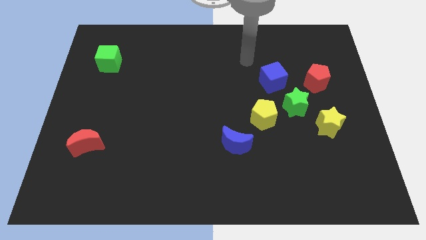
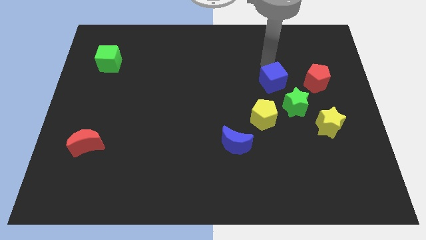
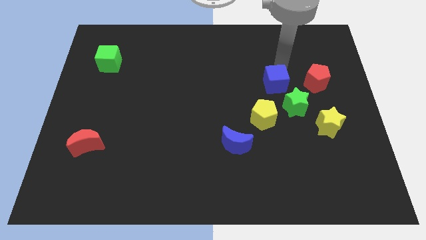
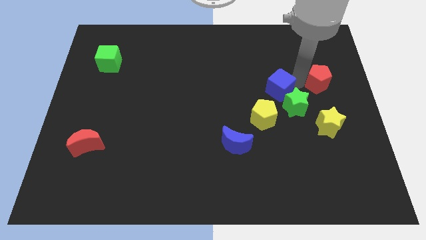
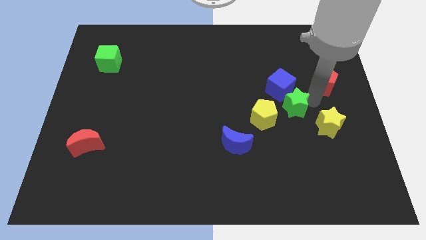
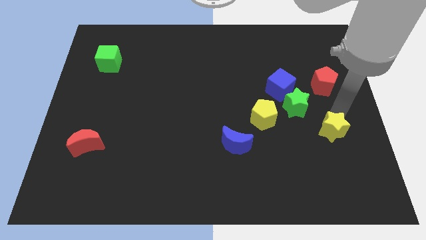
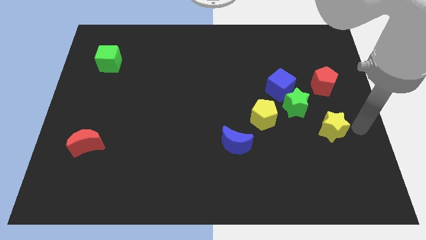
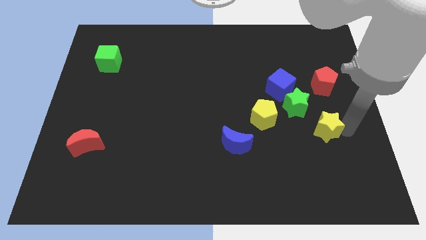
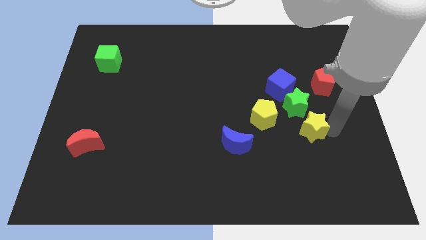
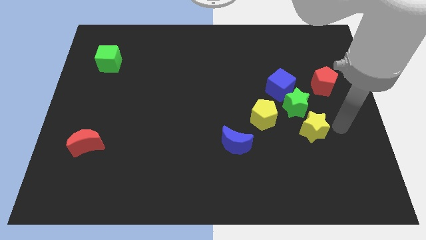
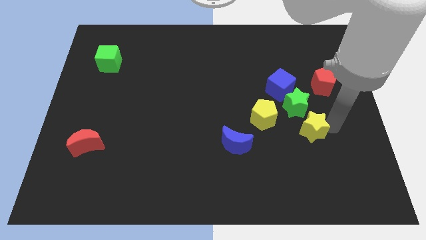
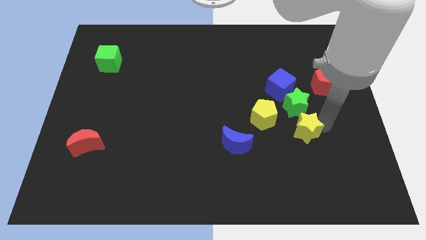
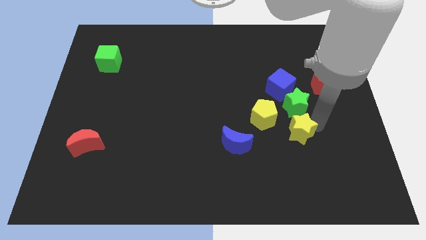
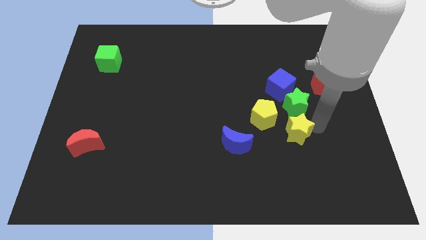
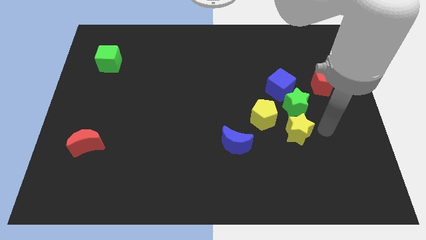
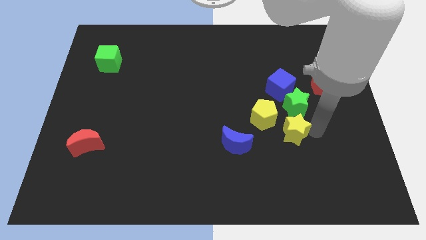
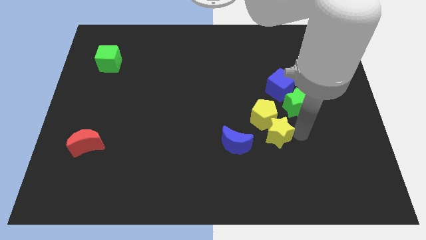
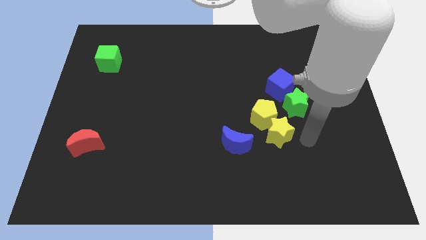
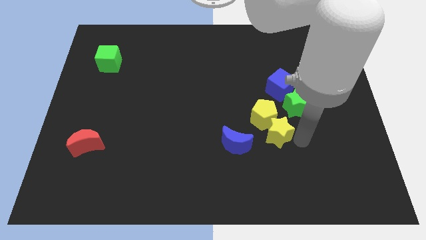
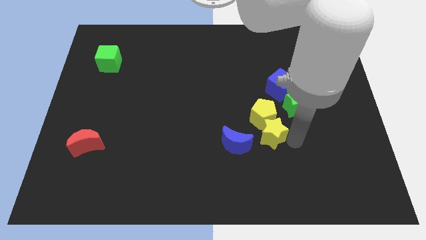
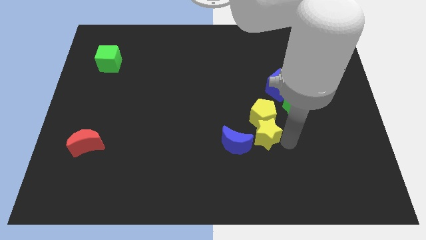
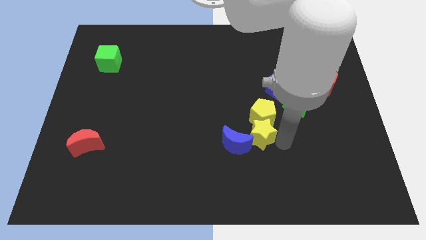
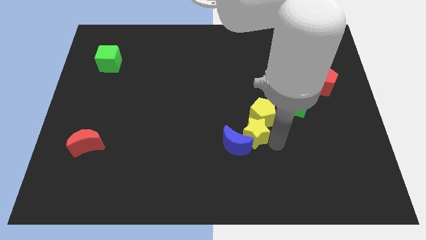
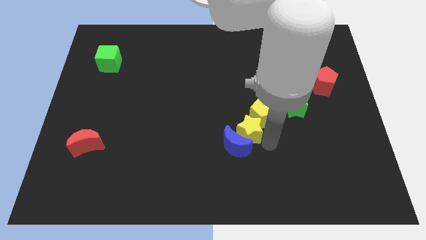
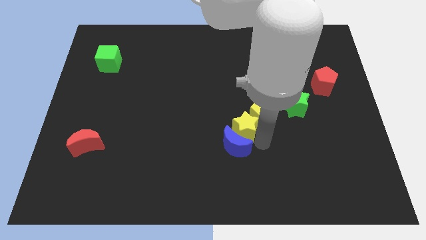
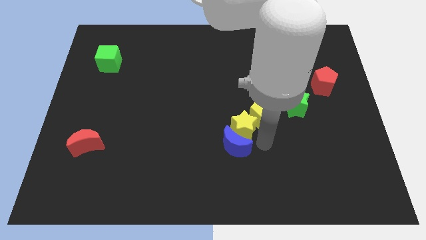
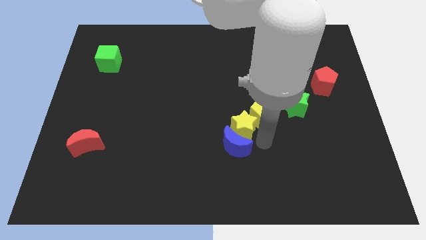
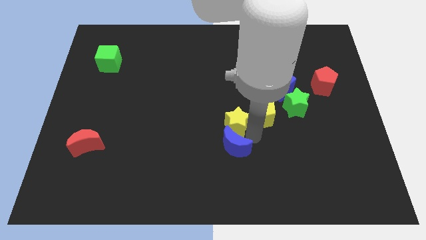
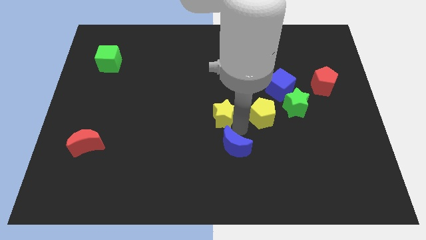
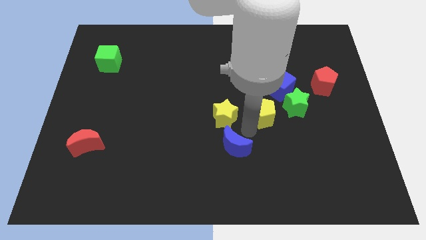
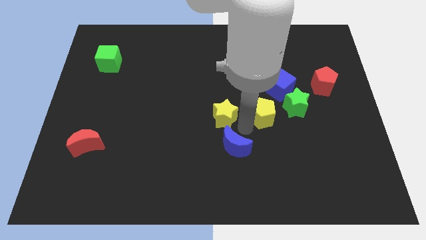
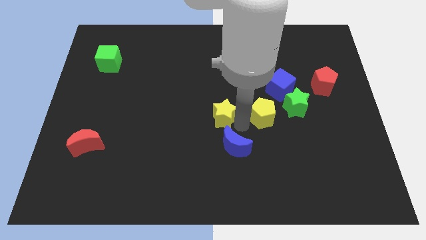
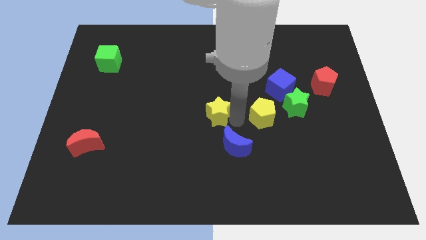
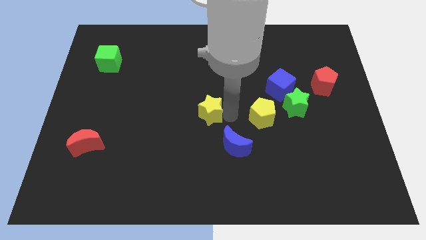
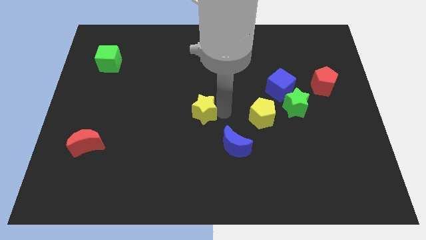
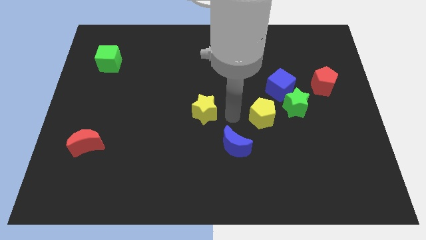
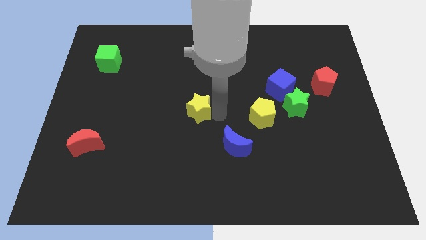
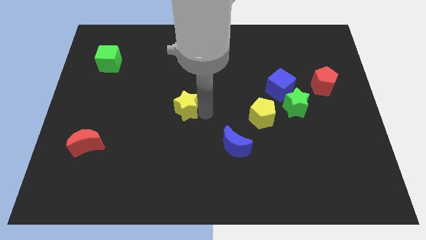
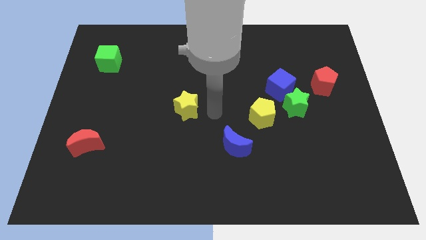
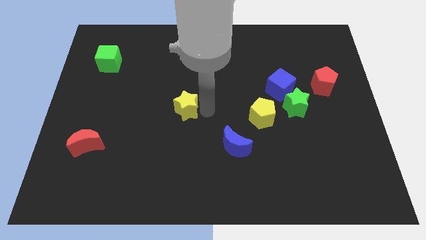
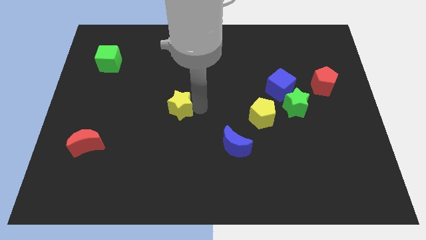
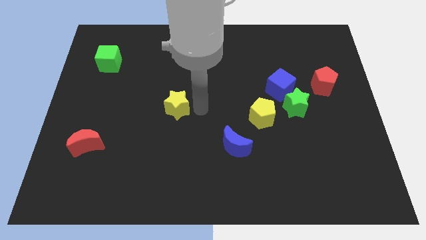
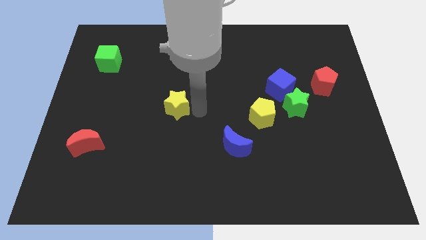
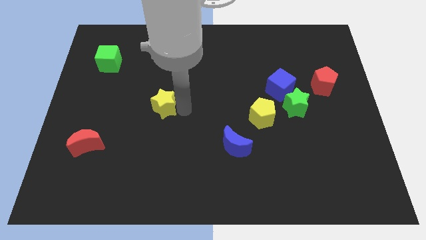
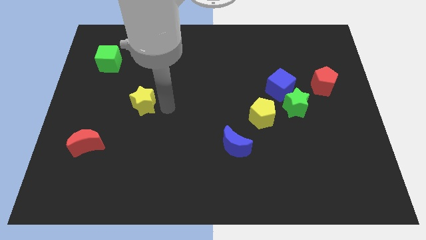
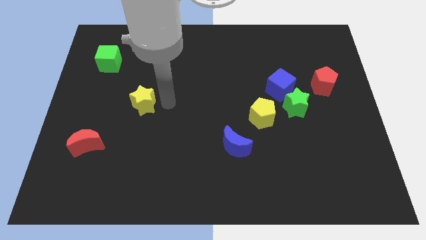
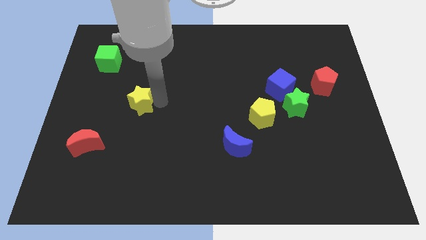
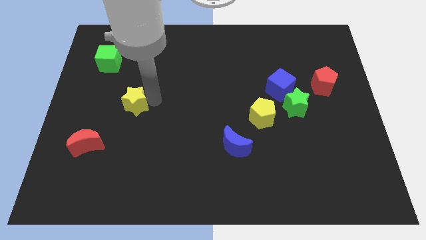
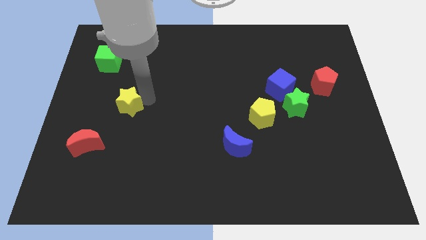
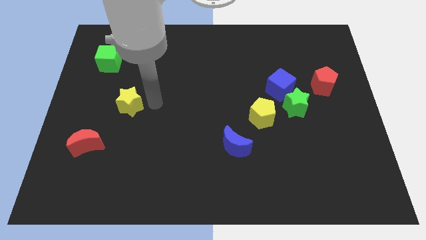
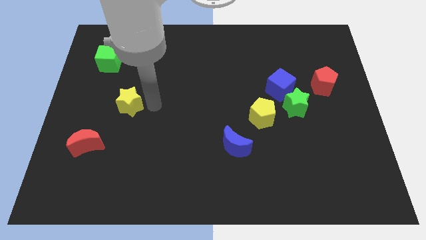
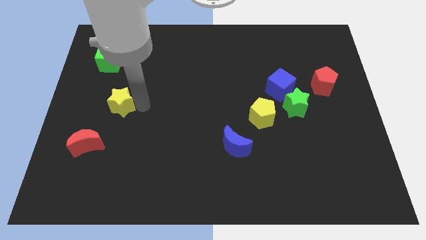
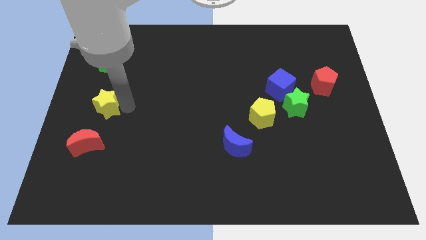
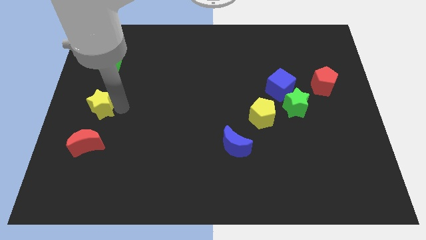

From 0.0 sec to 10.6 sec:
slide the yellow star to the left side
